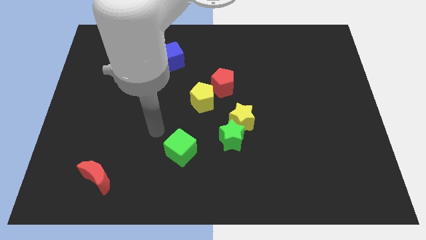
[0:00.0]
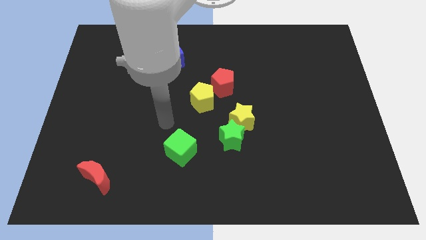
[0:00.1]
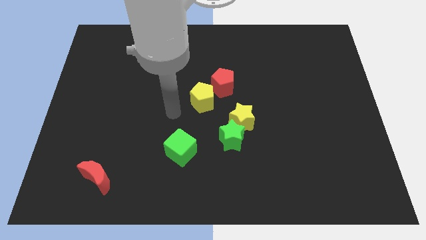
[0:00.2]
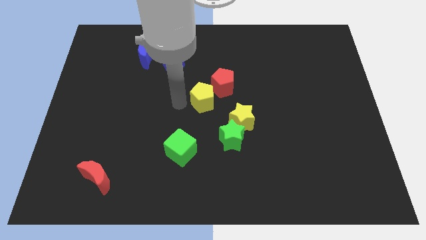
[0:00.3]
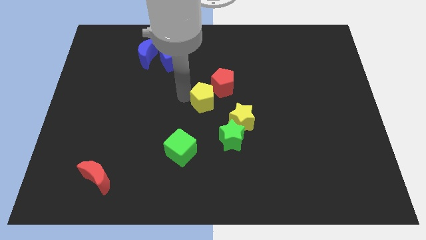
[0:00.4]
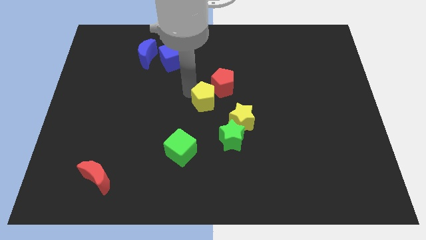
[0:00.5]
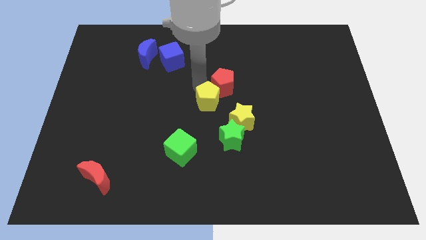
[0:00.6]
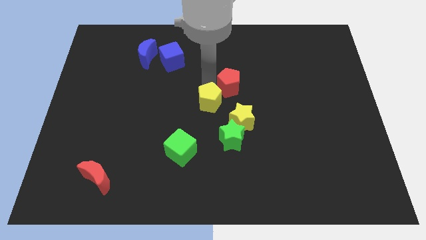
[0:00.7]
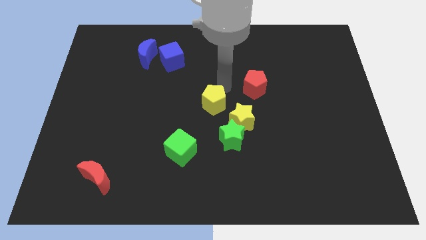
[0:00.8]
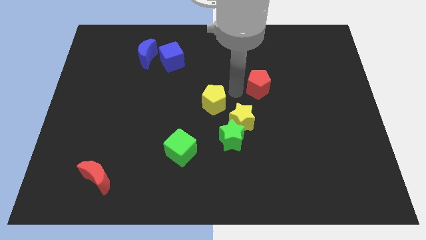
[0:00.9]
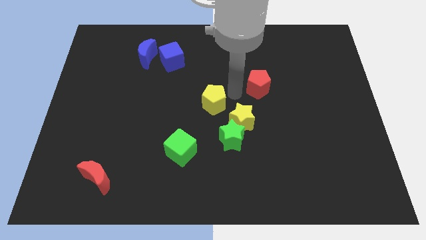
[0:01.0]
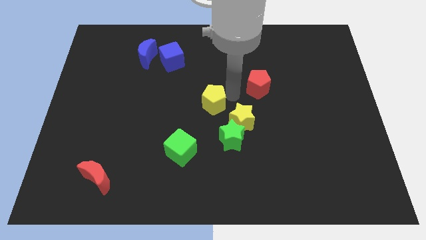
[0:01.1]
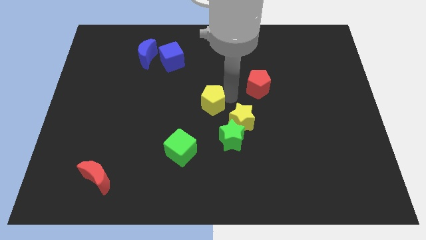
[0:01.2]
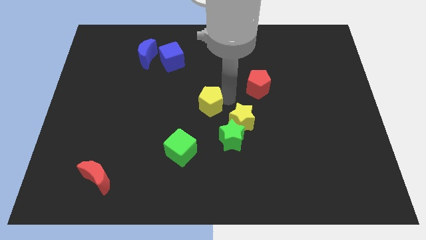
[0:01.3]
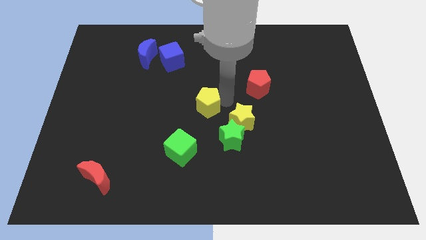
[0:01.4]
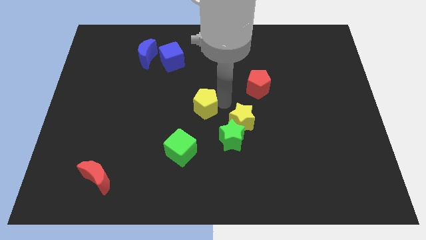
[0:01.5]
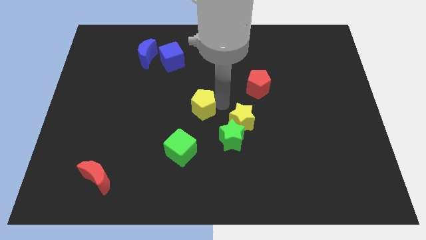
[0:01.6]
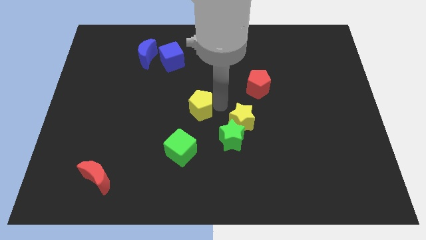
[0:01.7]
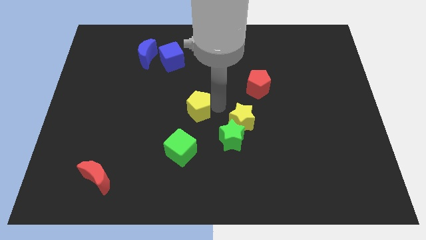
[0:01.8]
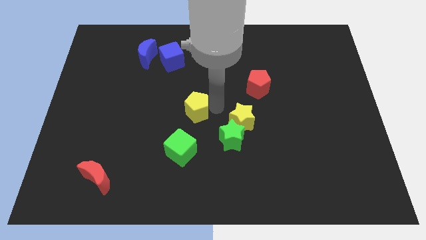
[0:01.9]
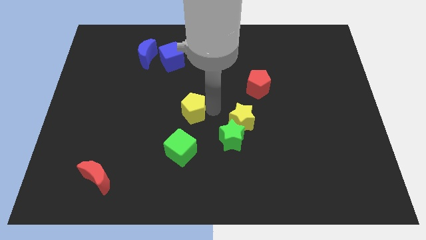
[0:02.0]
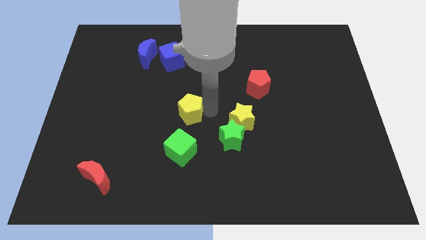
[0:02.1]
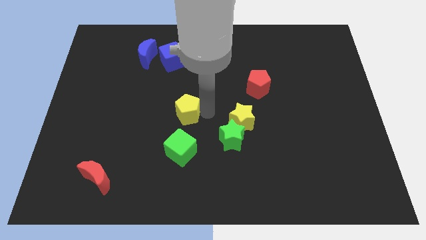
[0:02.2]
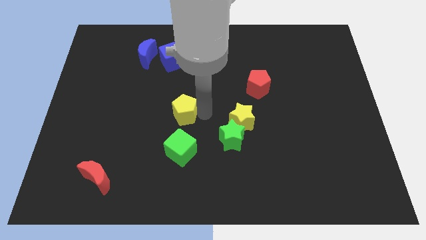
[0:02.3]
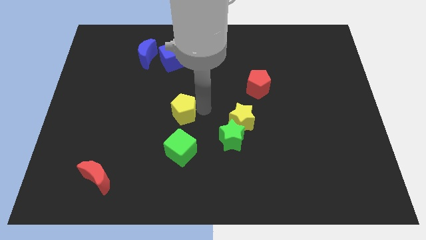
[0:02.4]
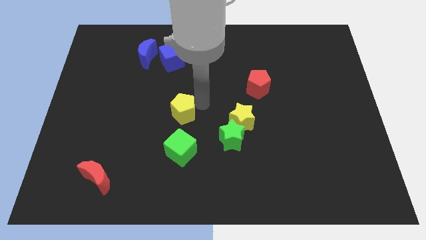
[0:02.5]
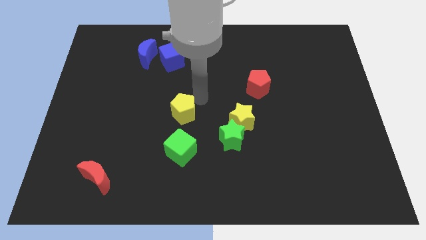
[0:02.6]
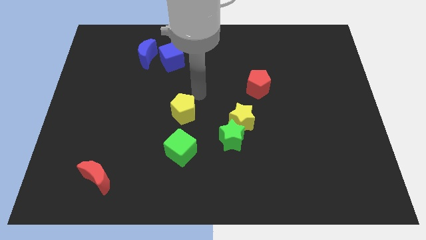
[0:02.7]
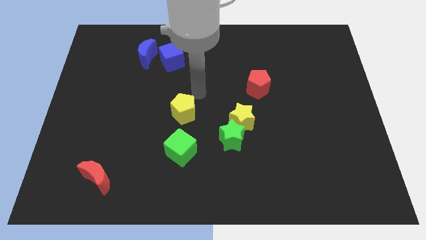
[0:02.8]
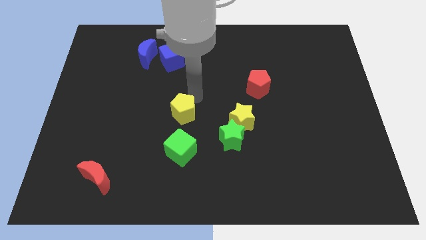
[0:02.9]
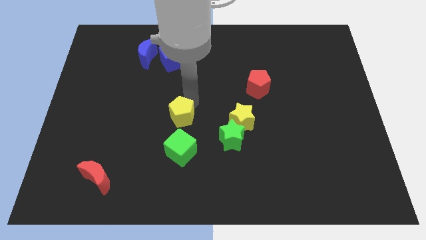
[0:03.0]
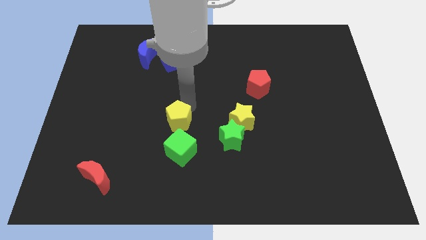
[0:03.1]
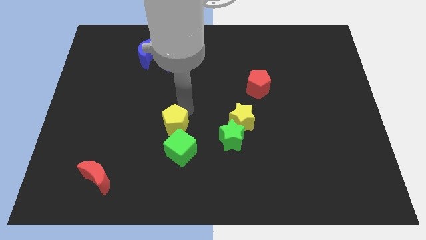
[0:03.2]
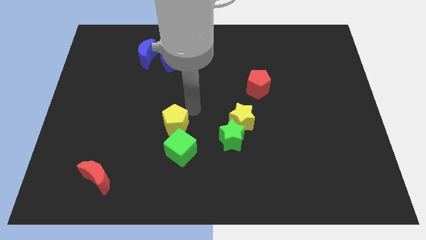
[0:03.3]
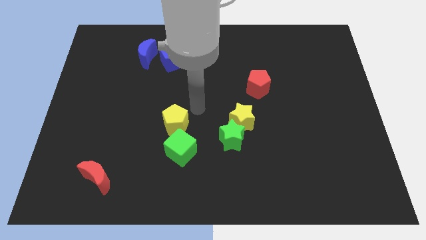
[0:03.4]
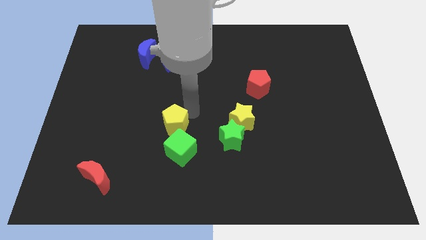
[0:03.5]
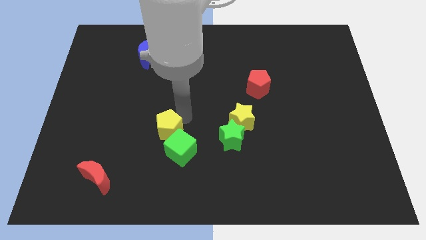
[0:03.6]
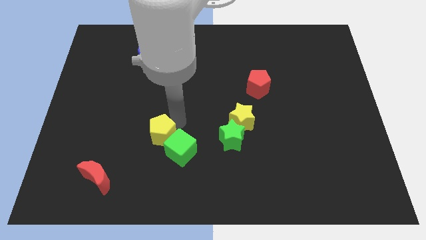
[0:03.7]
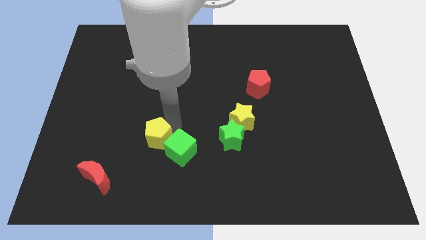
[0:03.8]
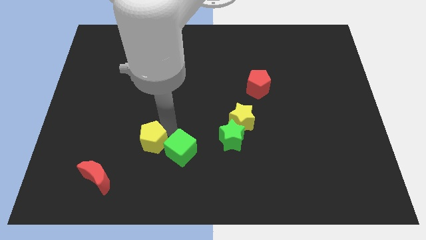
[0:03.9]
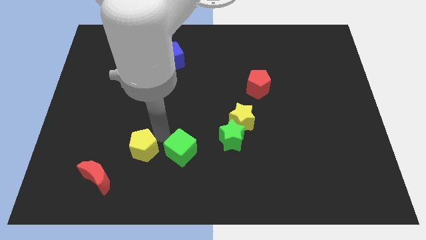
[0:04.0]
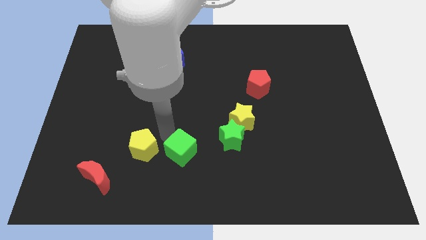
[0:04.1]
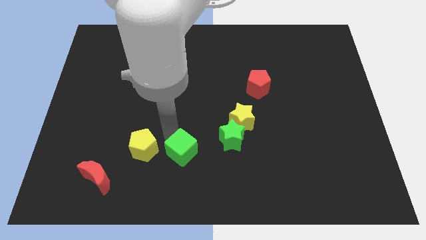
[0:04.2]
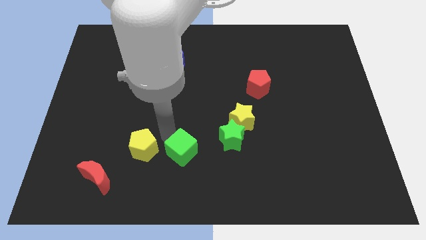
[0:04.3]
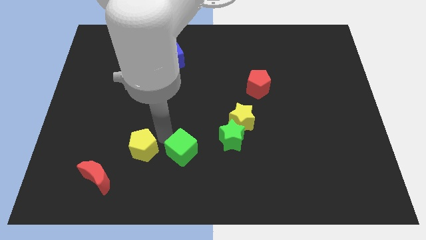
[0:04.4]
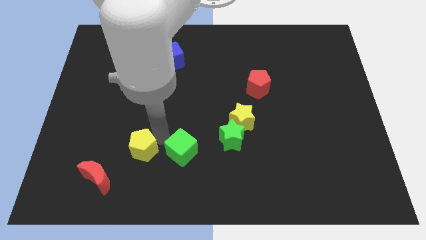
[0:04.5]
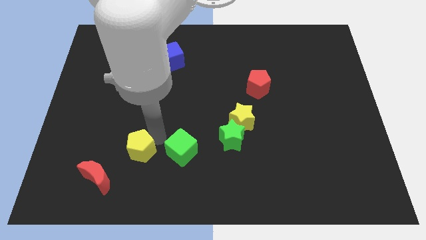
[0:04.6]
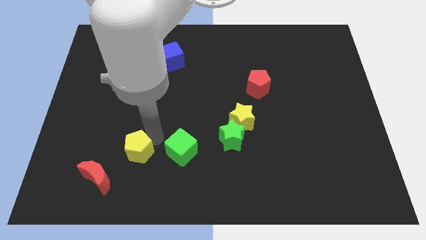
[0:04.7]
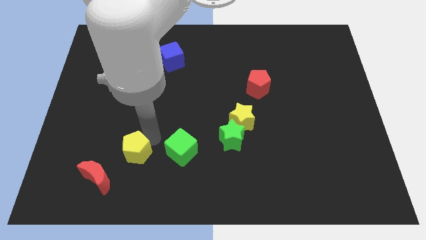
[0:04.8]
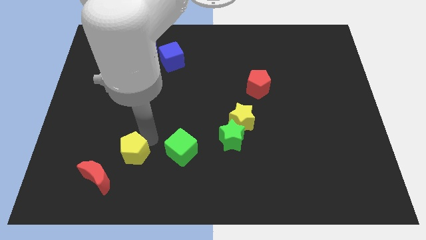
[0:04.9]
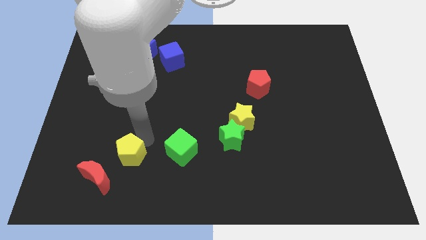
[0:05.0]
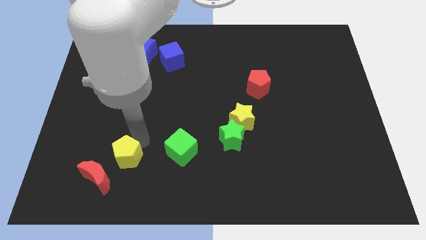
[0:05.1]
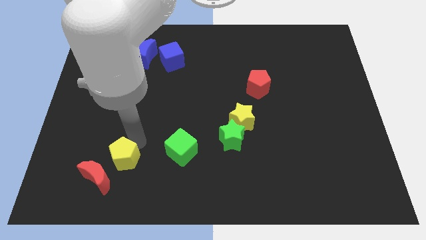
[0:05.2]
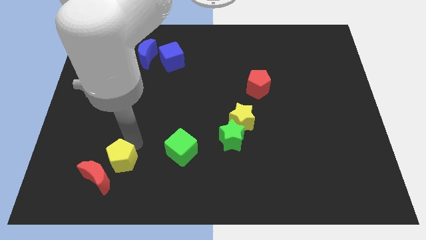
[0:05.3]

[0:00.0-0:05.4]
push the yellow pentagon to the red moon

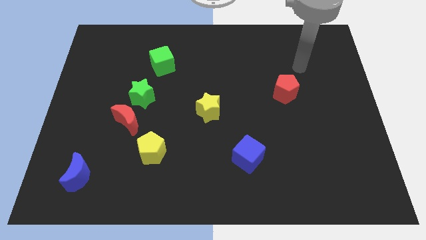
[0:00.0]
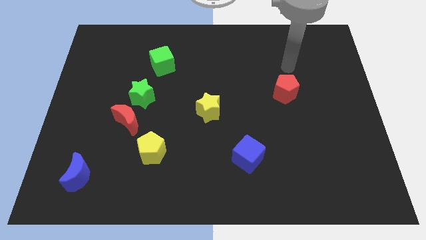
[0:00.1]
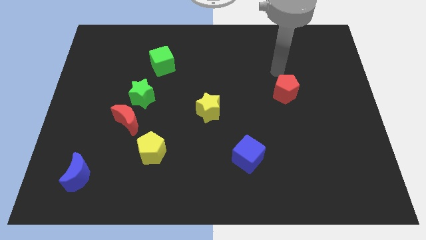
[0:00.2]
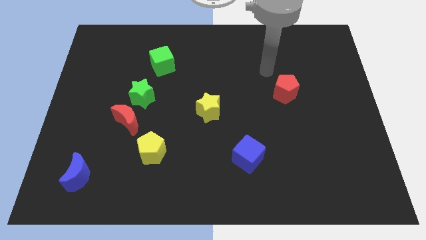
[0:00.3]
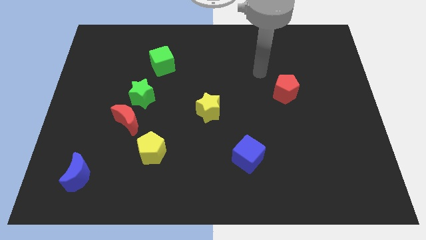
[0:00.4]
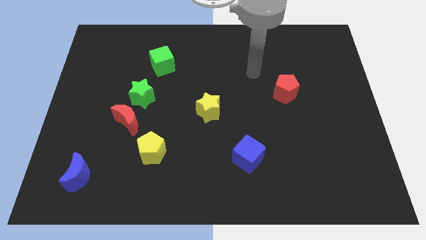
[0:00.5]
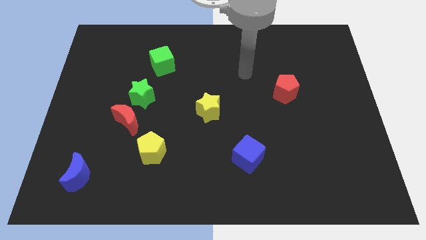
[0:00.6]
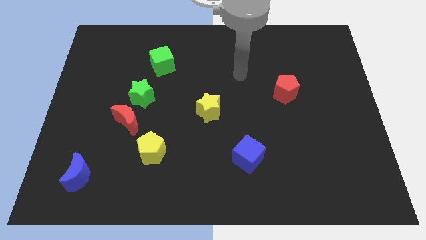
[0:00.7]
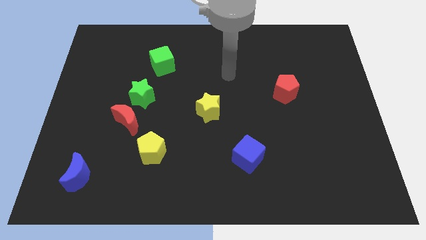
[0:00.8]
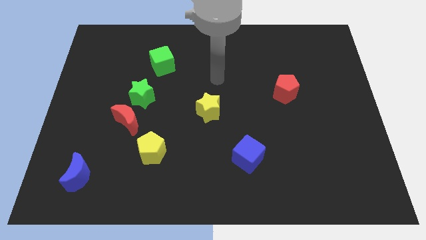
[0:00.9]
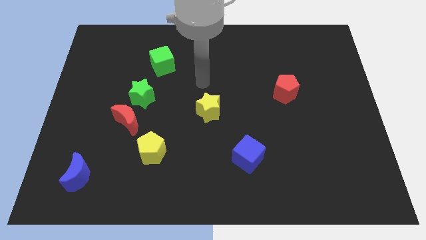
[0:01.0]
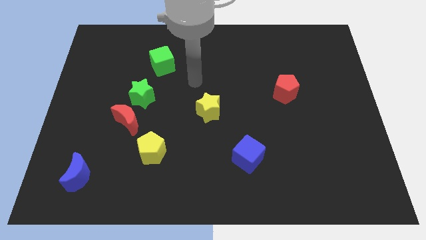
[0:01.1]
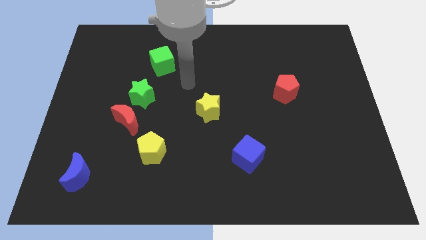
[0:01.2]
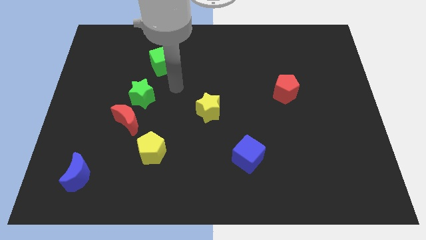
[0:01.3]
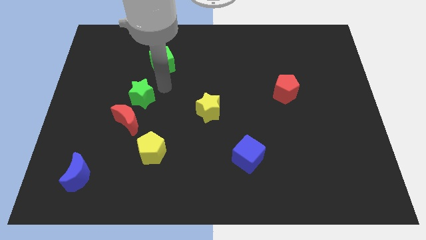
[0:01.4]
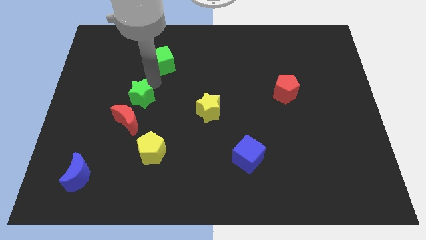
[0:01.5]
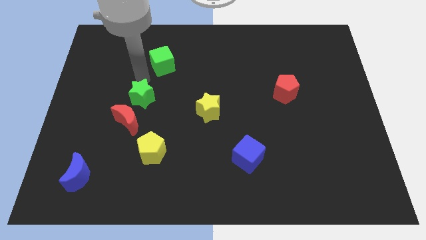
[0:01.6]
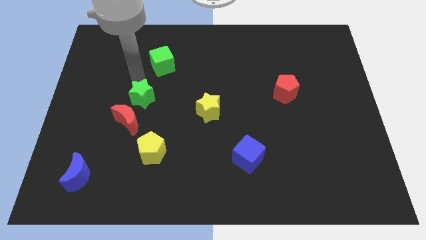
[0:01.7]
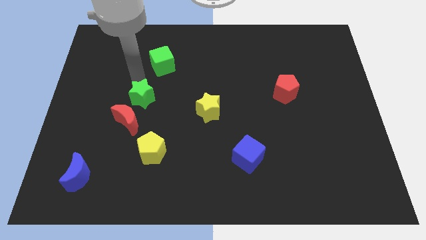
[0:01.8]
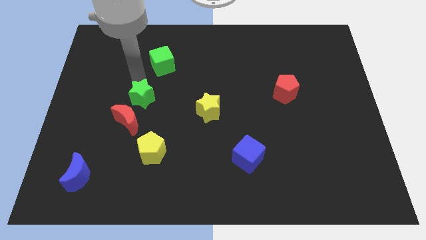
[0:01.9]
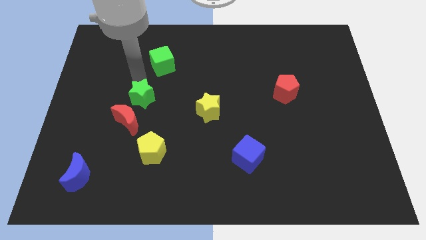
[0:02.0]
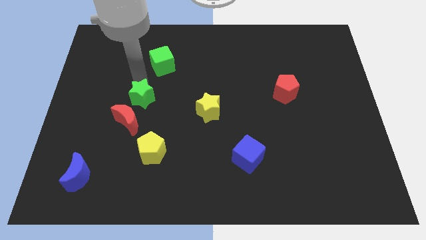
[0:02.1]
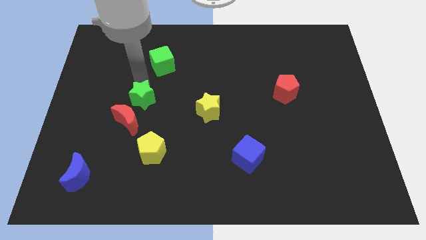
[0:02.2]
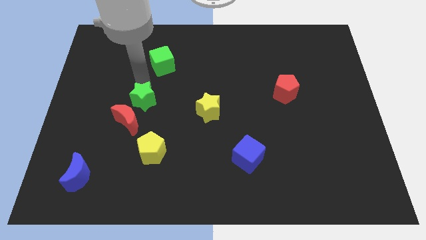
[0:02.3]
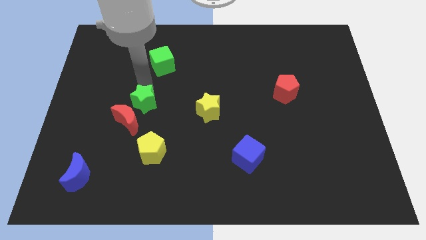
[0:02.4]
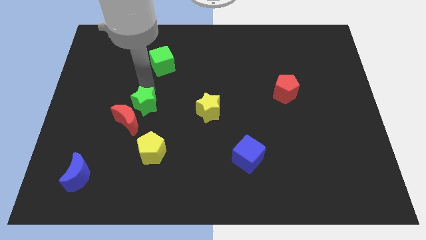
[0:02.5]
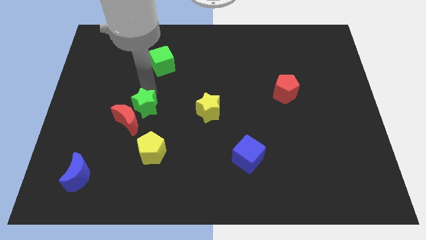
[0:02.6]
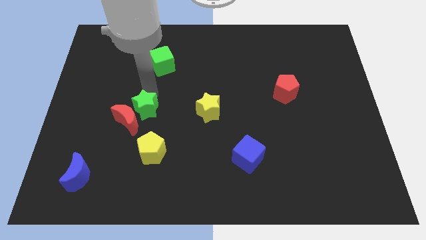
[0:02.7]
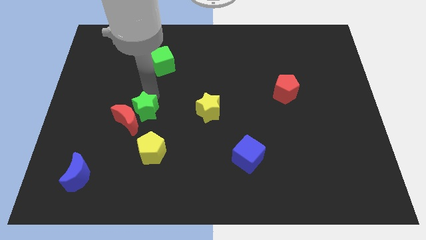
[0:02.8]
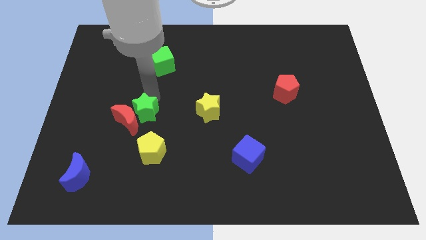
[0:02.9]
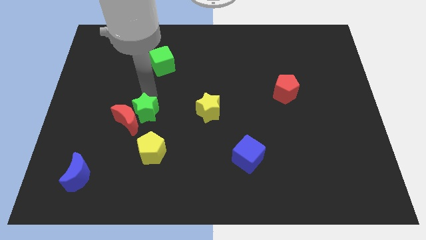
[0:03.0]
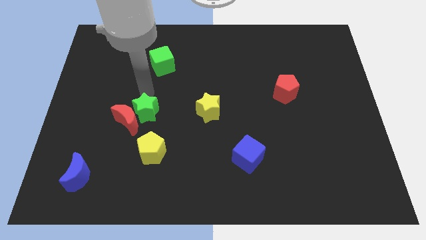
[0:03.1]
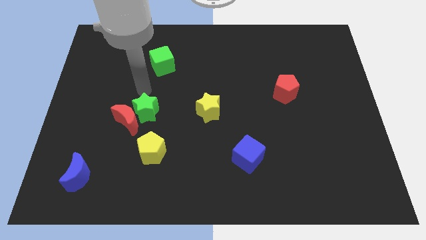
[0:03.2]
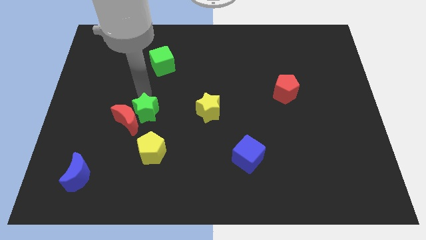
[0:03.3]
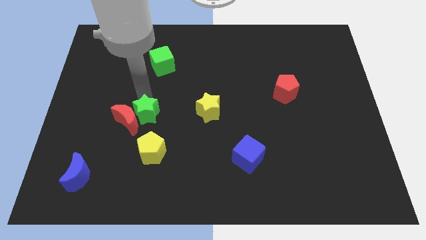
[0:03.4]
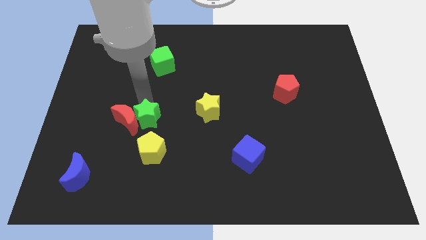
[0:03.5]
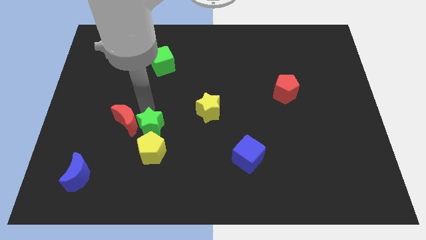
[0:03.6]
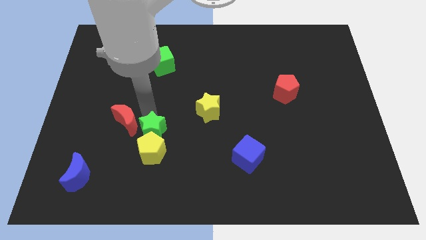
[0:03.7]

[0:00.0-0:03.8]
put the green star towards the yellow pentagon
